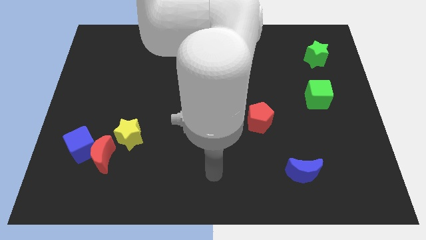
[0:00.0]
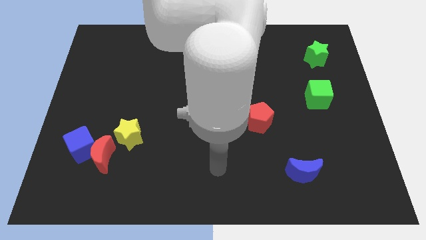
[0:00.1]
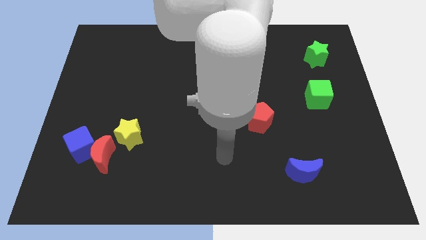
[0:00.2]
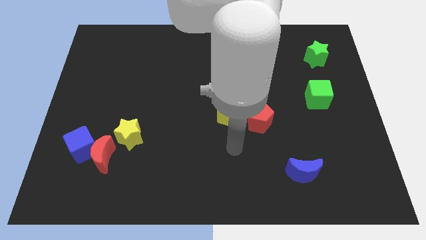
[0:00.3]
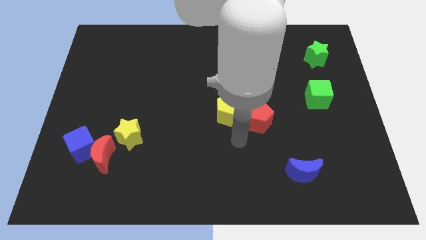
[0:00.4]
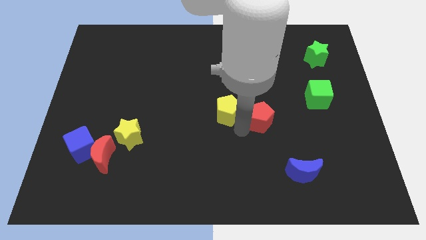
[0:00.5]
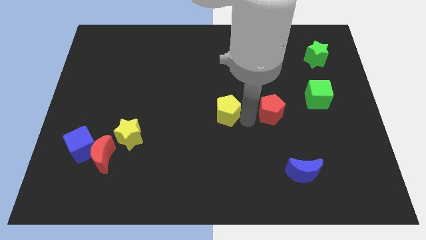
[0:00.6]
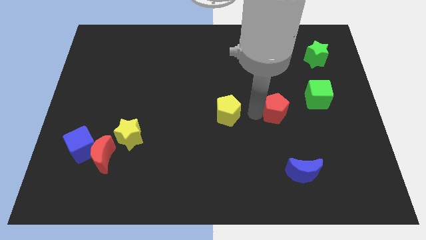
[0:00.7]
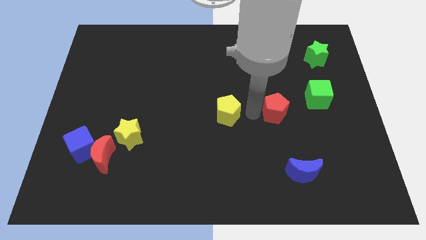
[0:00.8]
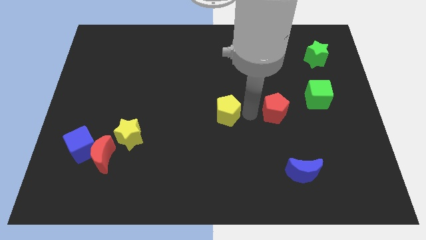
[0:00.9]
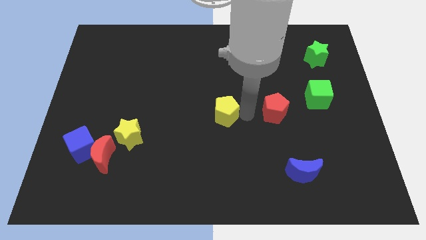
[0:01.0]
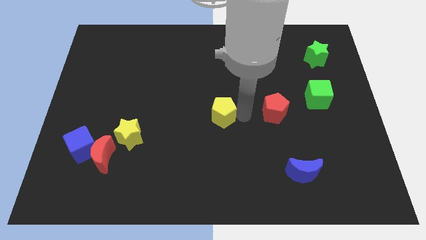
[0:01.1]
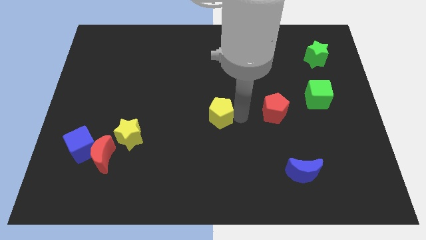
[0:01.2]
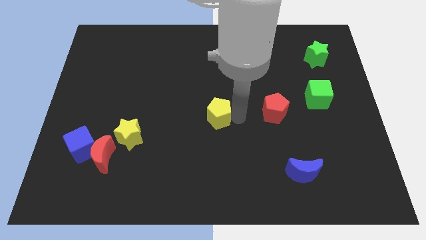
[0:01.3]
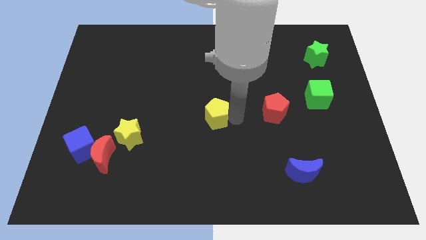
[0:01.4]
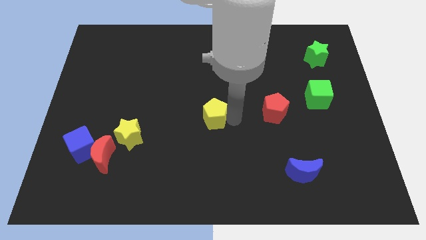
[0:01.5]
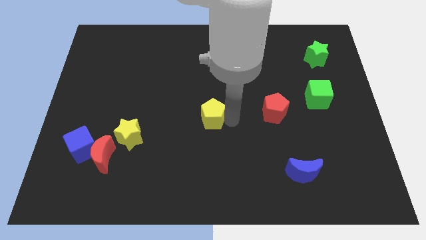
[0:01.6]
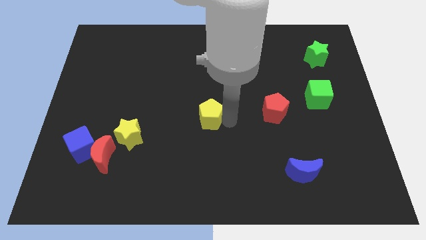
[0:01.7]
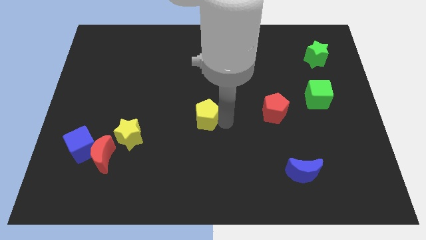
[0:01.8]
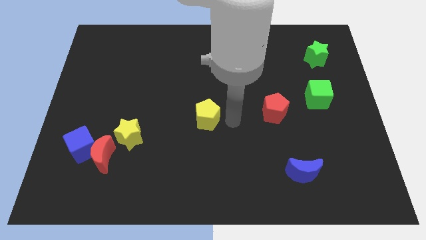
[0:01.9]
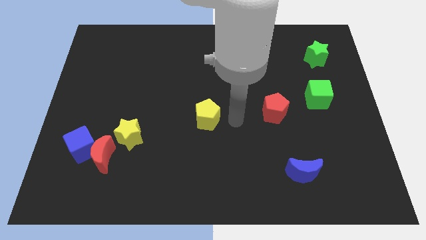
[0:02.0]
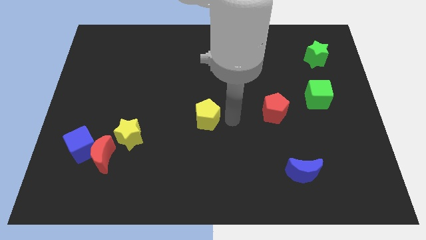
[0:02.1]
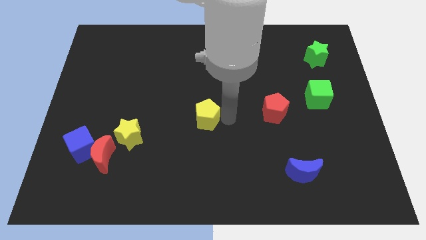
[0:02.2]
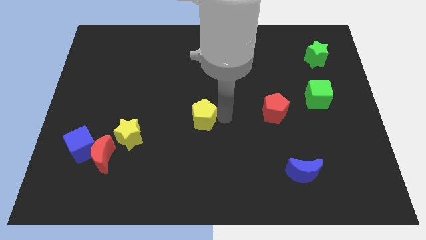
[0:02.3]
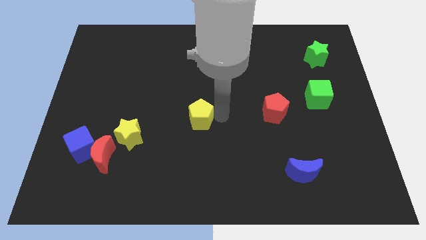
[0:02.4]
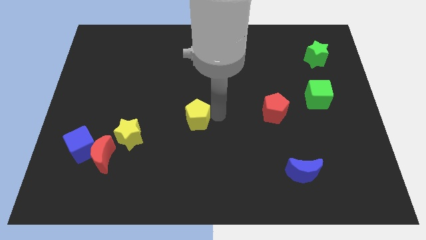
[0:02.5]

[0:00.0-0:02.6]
slightly slide the yellow pentagon to the left

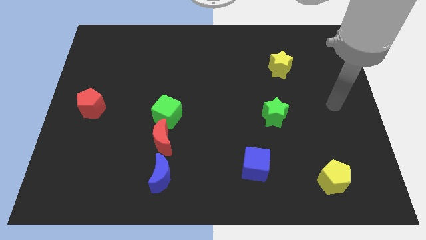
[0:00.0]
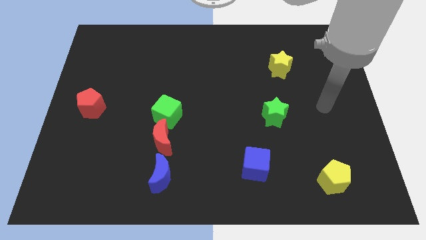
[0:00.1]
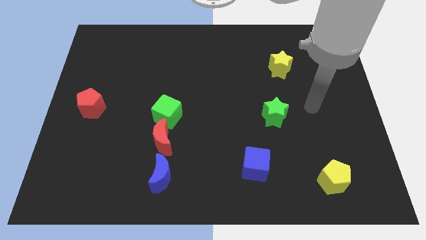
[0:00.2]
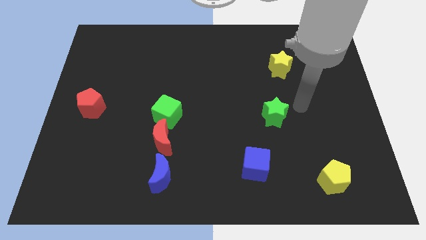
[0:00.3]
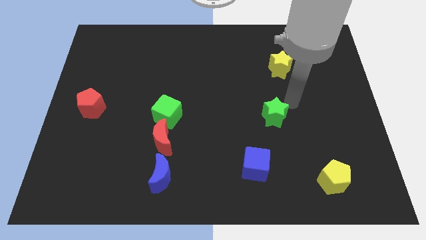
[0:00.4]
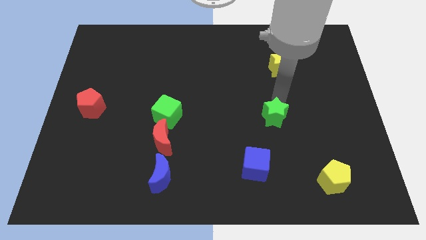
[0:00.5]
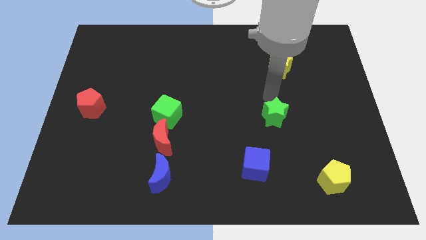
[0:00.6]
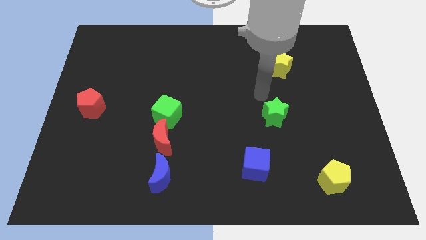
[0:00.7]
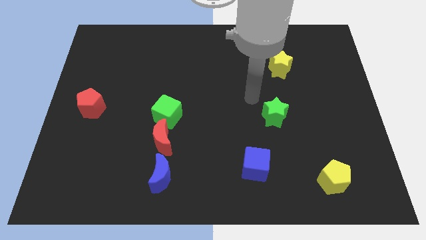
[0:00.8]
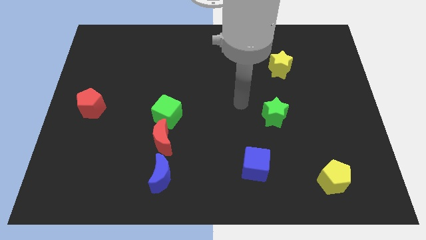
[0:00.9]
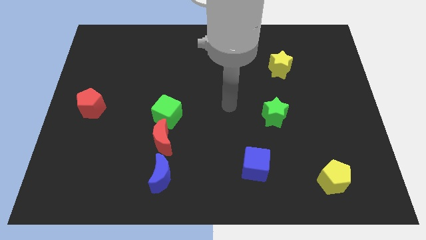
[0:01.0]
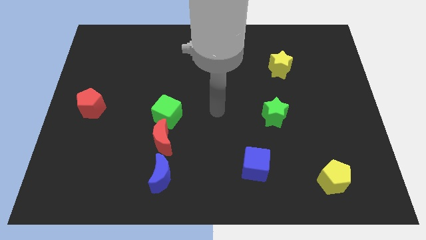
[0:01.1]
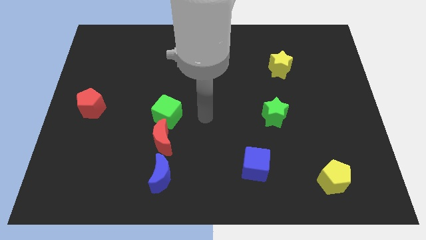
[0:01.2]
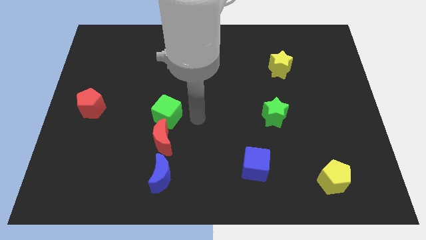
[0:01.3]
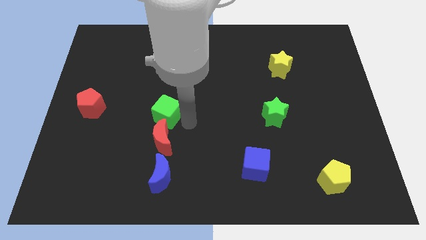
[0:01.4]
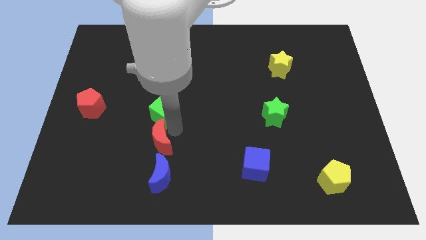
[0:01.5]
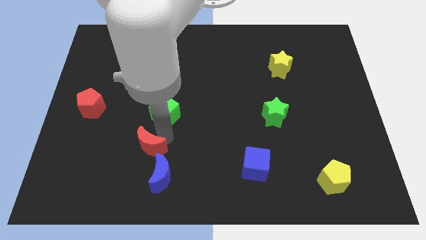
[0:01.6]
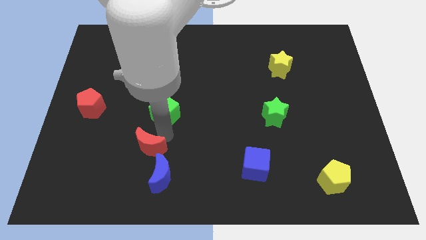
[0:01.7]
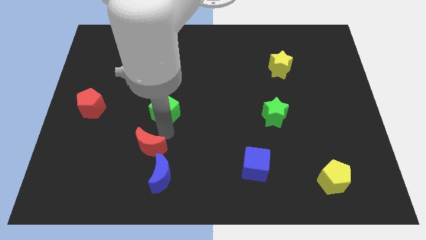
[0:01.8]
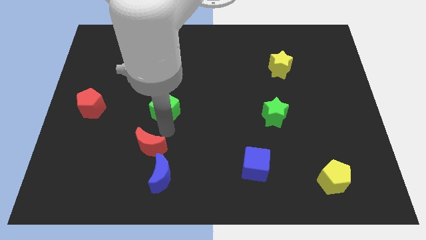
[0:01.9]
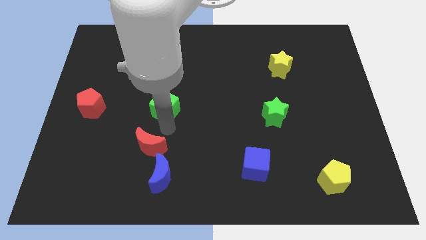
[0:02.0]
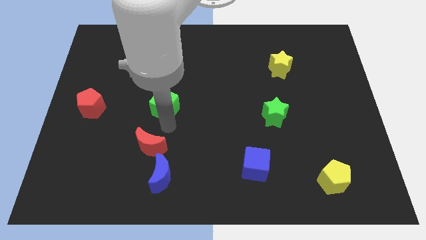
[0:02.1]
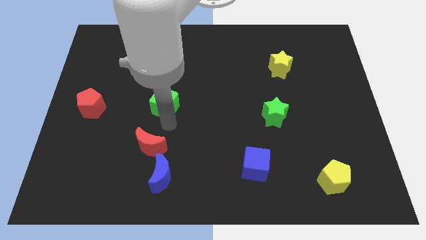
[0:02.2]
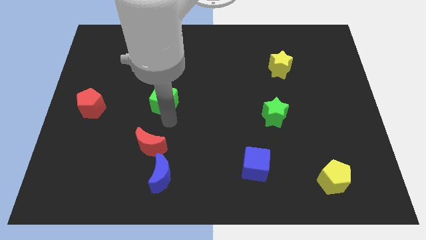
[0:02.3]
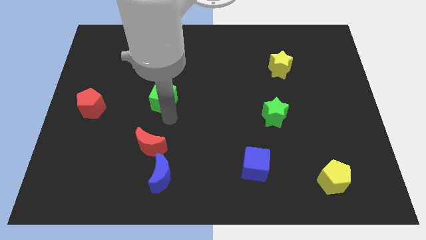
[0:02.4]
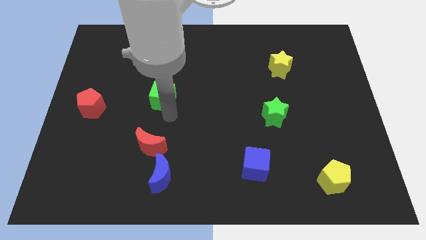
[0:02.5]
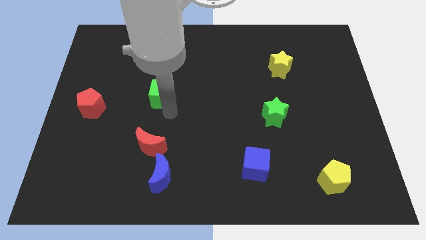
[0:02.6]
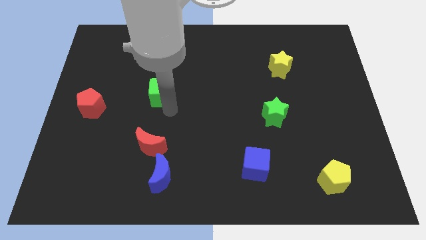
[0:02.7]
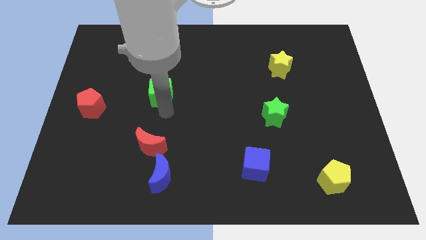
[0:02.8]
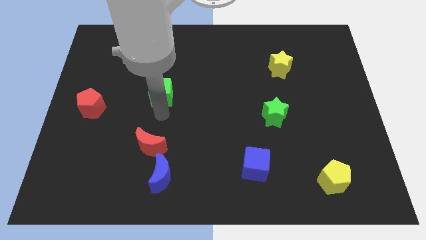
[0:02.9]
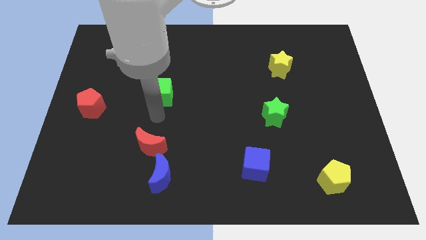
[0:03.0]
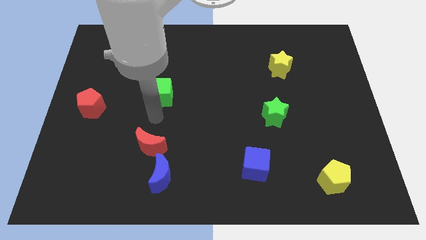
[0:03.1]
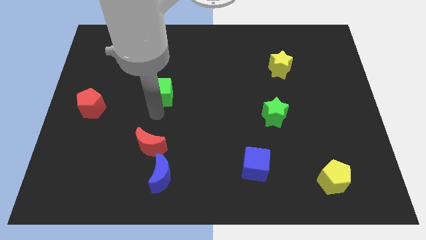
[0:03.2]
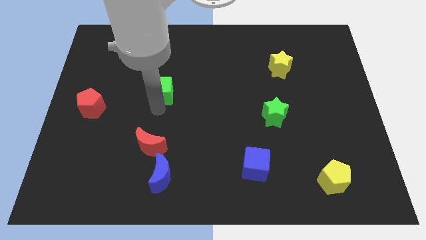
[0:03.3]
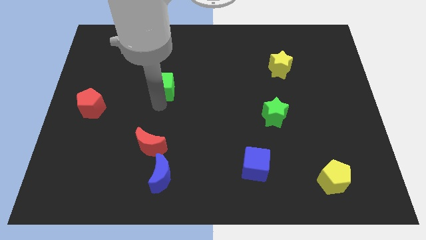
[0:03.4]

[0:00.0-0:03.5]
push the green cube upwards a little

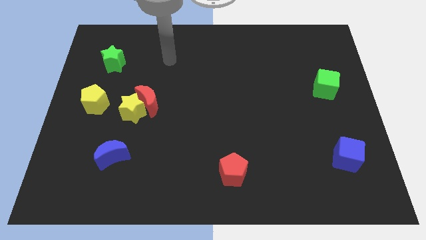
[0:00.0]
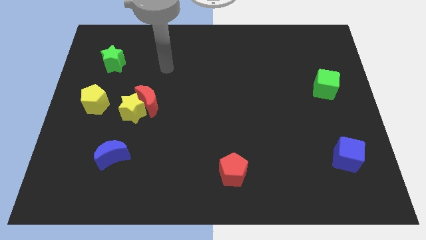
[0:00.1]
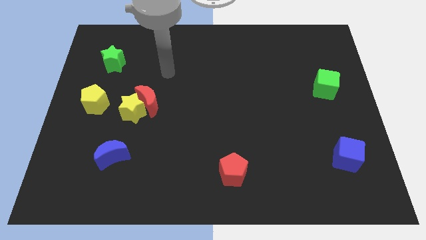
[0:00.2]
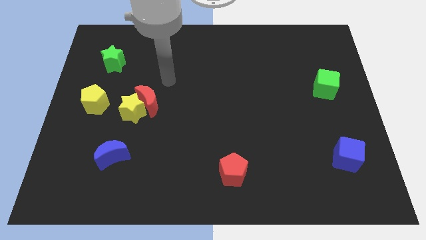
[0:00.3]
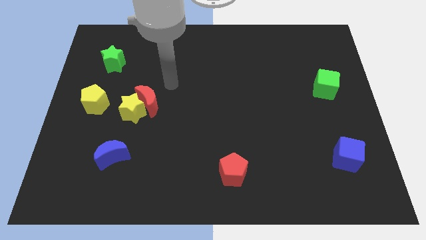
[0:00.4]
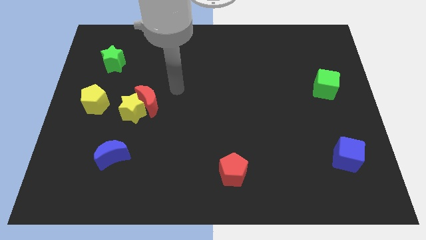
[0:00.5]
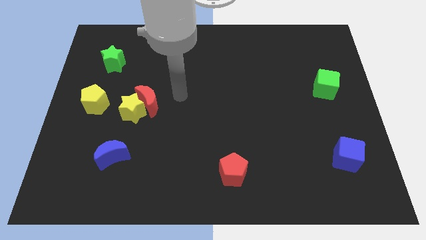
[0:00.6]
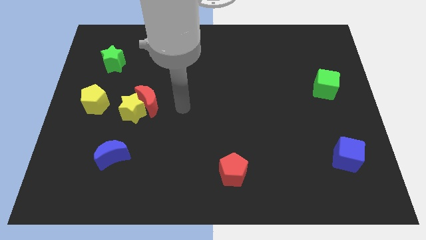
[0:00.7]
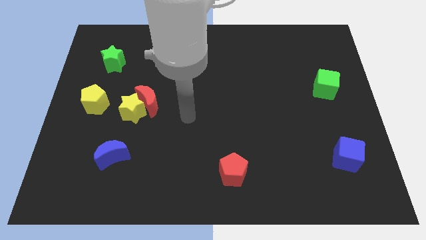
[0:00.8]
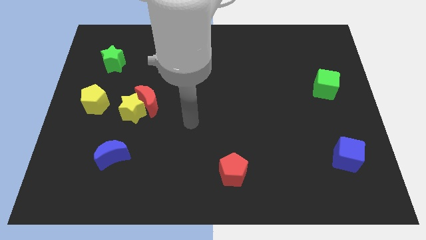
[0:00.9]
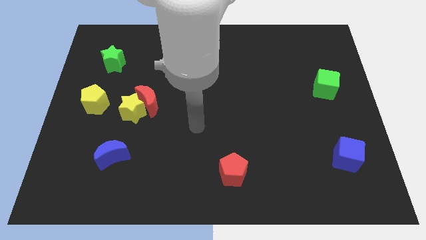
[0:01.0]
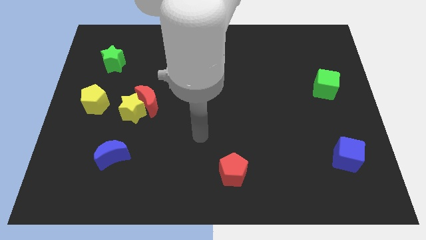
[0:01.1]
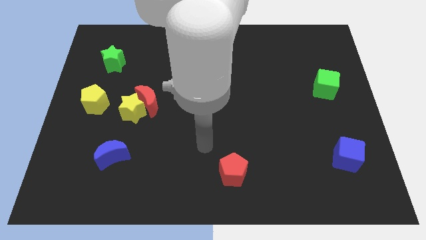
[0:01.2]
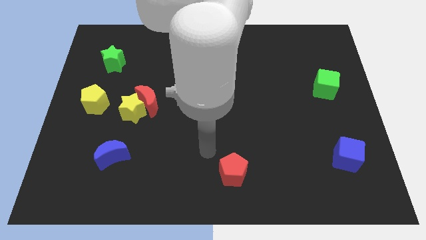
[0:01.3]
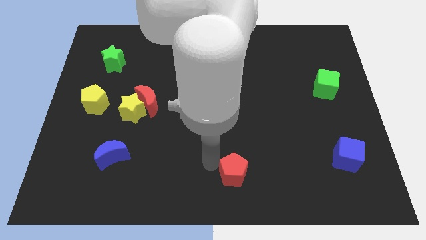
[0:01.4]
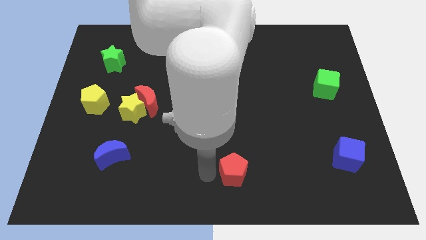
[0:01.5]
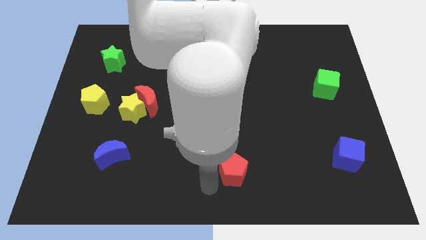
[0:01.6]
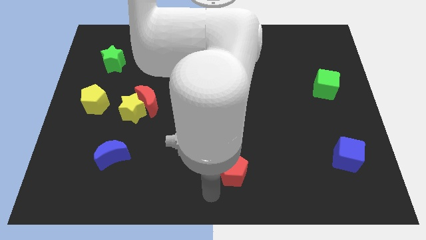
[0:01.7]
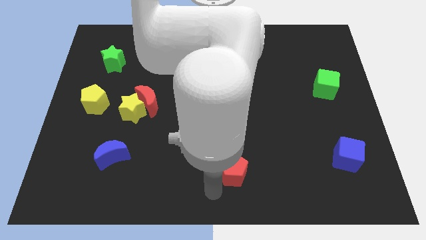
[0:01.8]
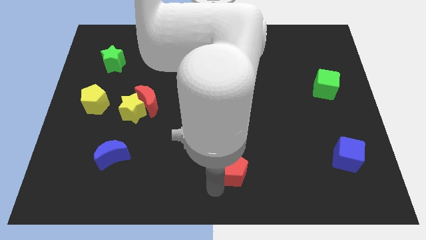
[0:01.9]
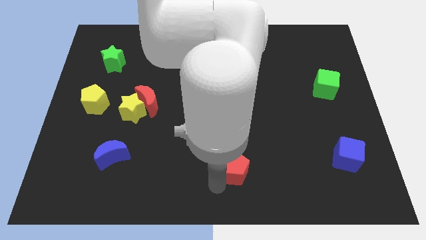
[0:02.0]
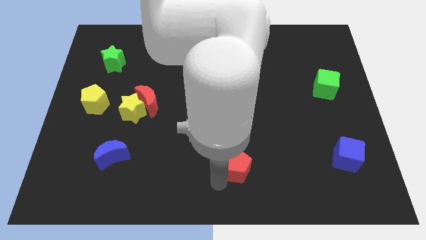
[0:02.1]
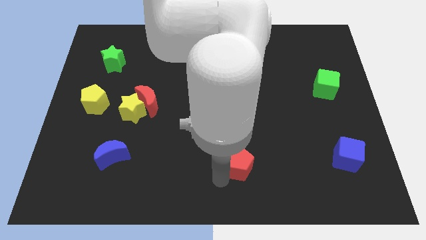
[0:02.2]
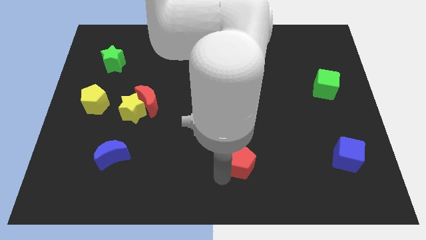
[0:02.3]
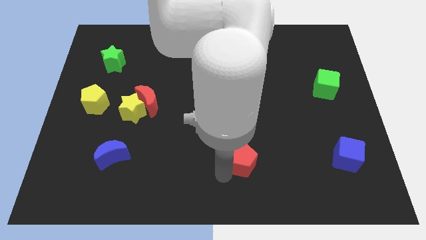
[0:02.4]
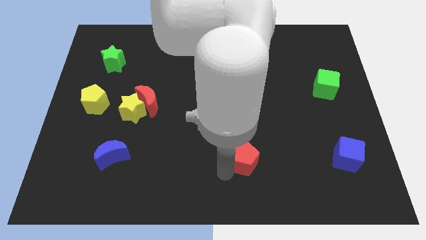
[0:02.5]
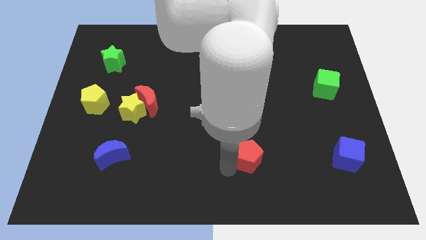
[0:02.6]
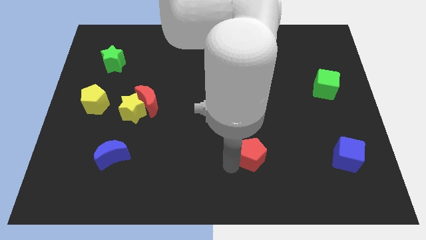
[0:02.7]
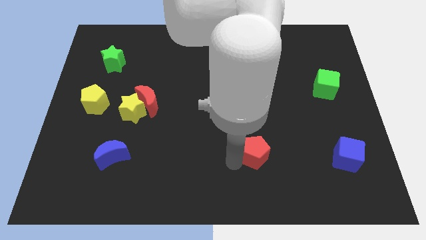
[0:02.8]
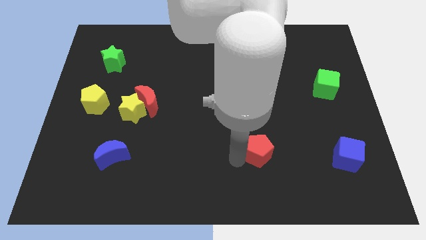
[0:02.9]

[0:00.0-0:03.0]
move the red pentagon upwards and to the right diagonally somewhat
